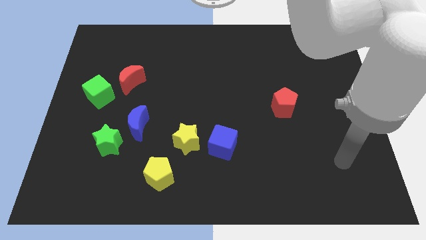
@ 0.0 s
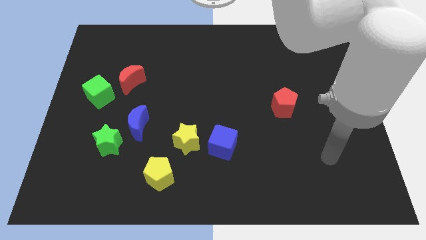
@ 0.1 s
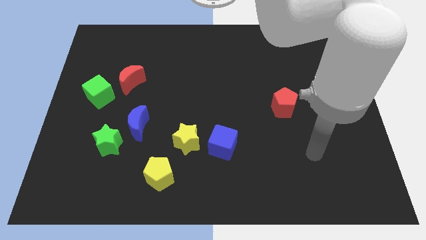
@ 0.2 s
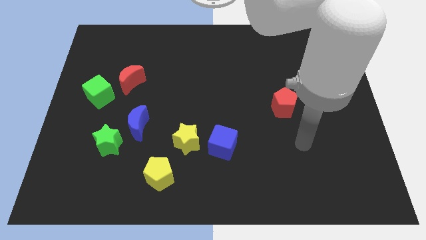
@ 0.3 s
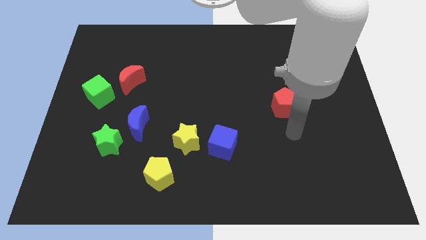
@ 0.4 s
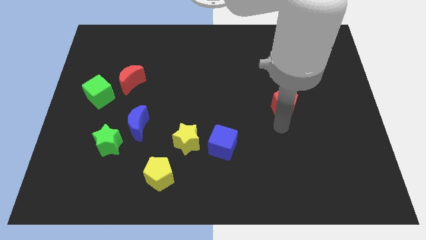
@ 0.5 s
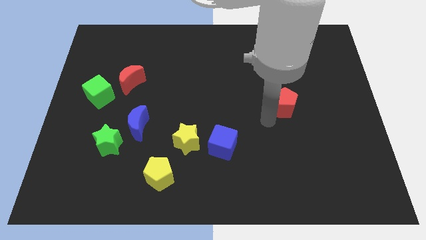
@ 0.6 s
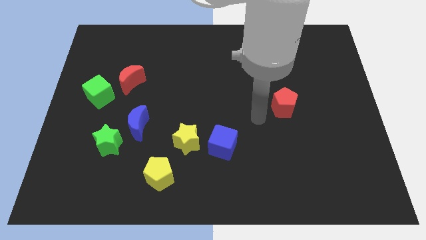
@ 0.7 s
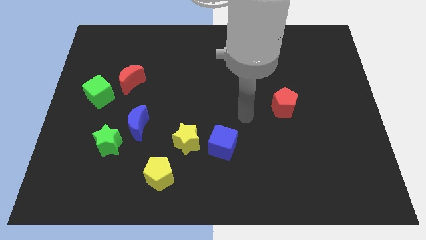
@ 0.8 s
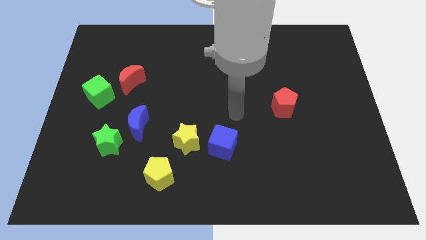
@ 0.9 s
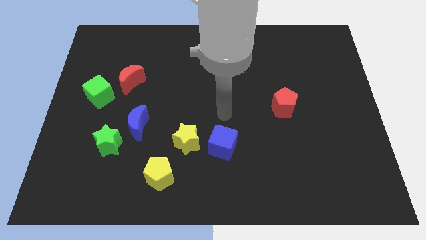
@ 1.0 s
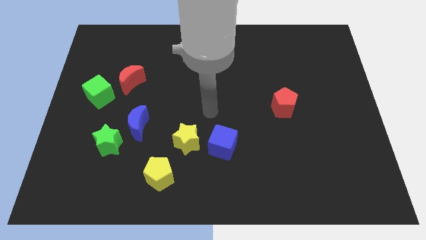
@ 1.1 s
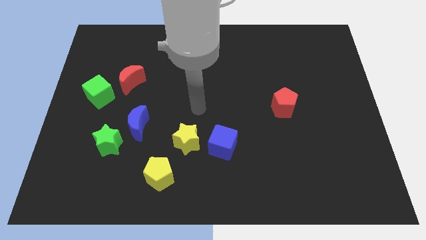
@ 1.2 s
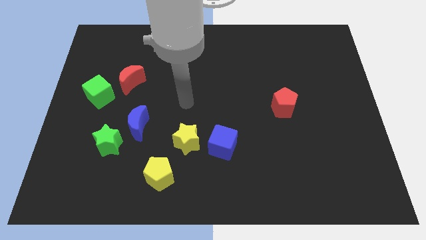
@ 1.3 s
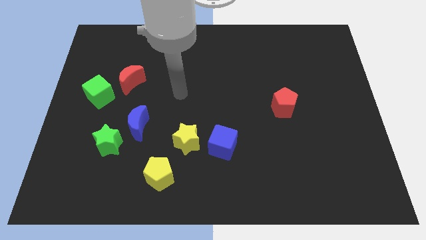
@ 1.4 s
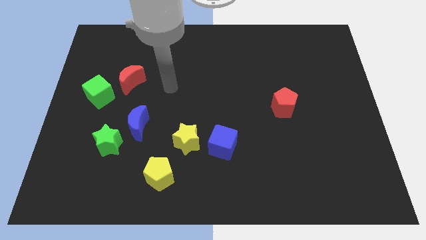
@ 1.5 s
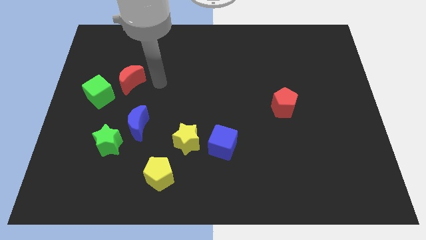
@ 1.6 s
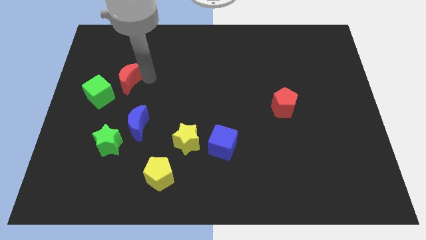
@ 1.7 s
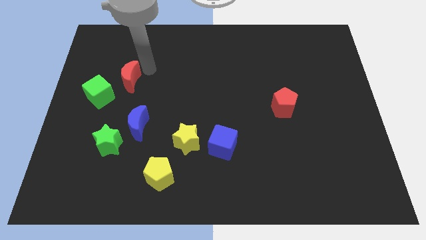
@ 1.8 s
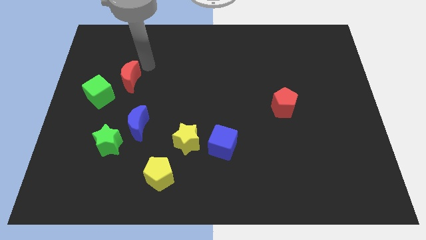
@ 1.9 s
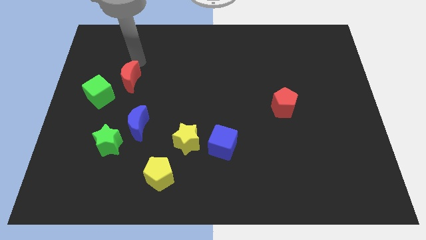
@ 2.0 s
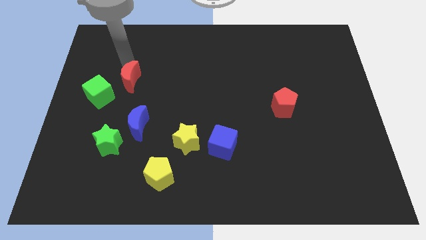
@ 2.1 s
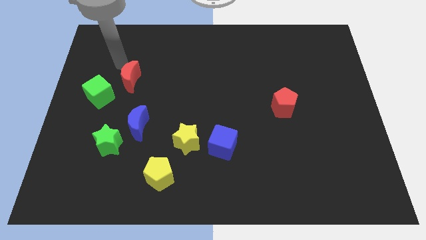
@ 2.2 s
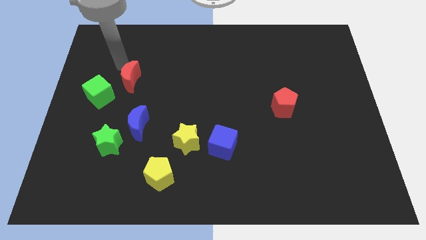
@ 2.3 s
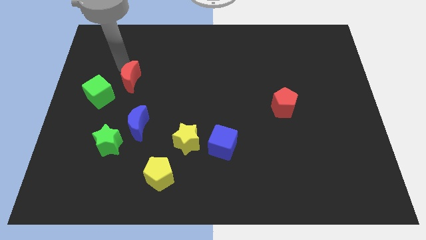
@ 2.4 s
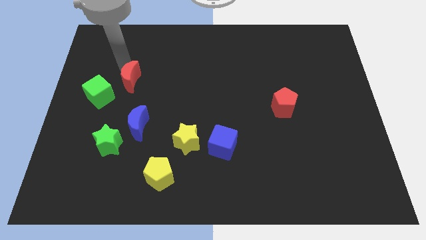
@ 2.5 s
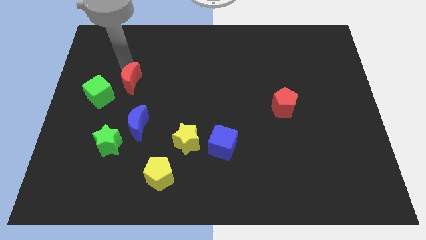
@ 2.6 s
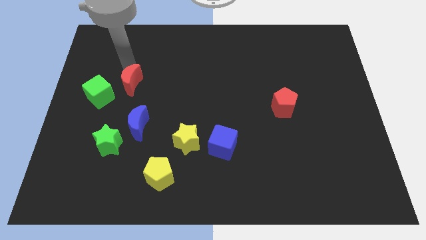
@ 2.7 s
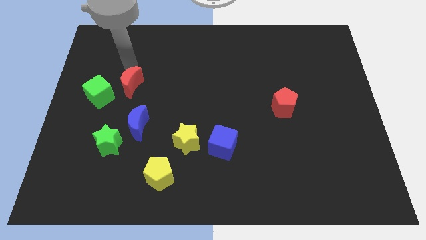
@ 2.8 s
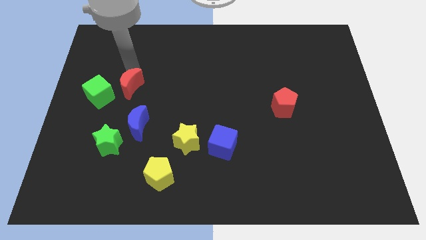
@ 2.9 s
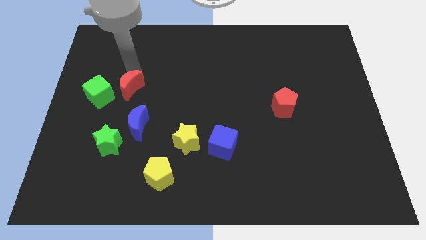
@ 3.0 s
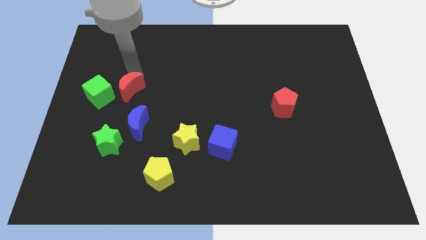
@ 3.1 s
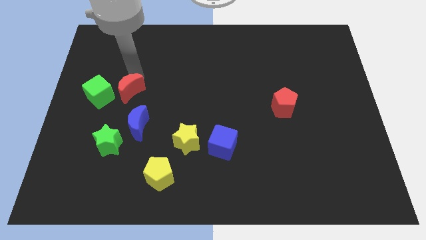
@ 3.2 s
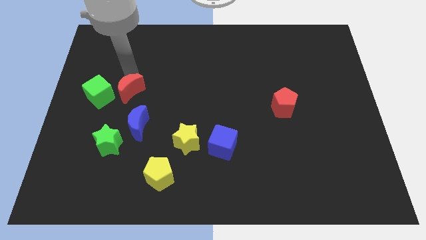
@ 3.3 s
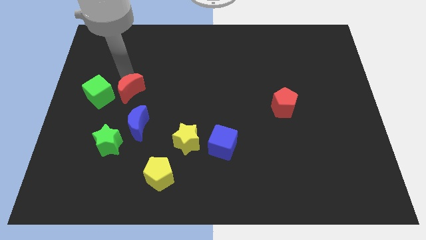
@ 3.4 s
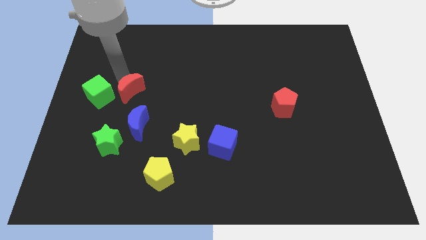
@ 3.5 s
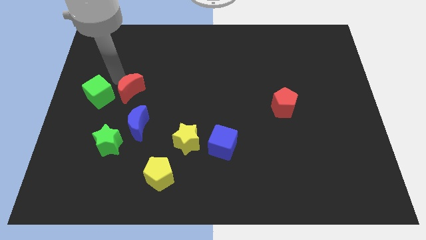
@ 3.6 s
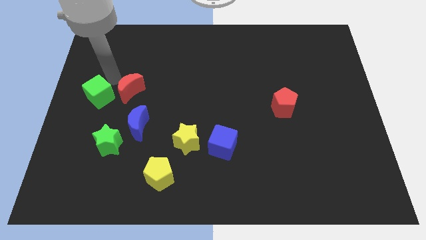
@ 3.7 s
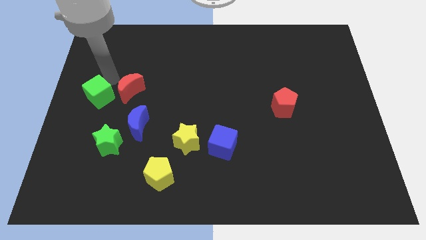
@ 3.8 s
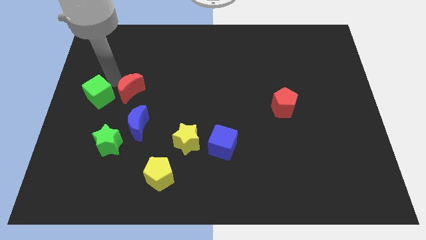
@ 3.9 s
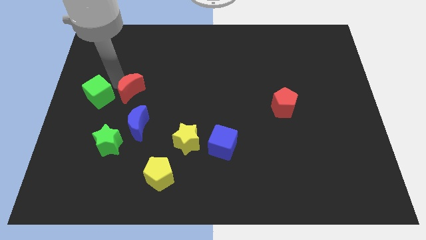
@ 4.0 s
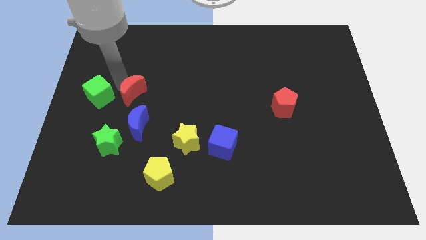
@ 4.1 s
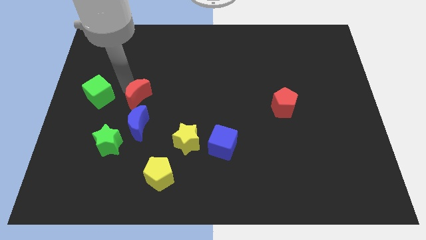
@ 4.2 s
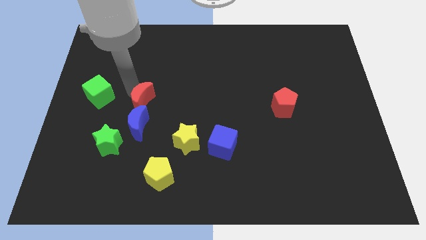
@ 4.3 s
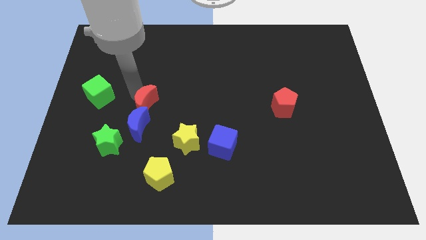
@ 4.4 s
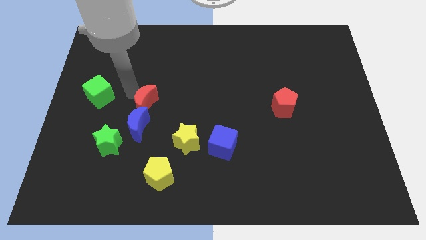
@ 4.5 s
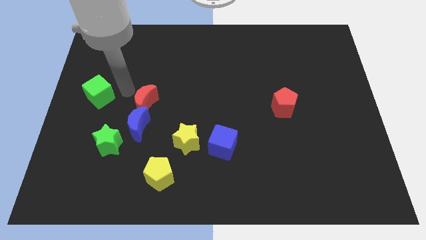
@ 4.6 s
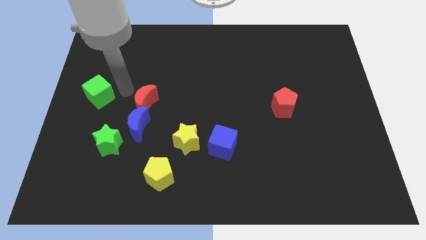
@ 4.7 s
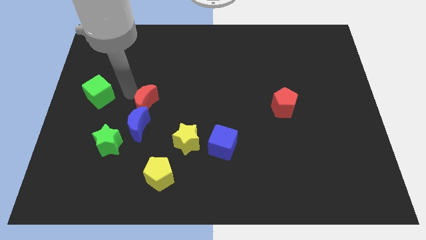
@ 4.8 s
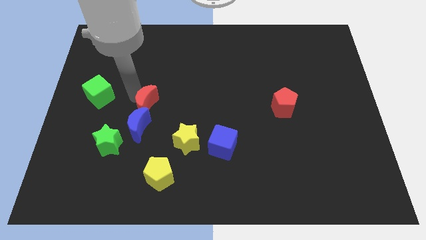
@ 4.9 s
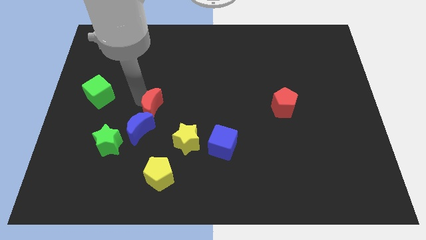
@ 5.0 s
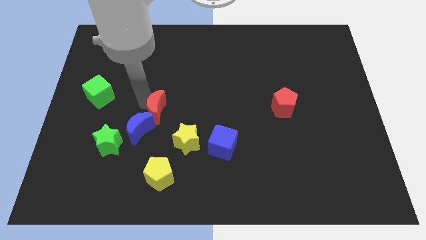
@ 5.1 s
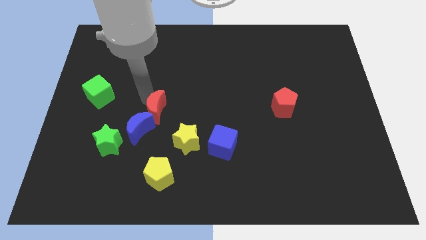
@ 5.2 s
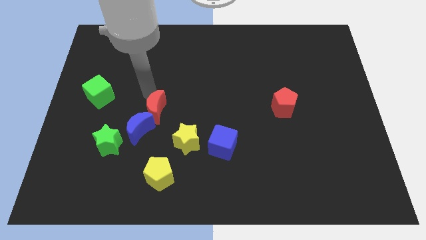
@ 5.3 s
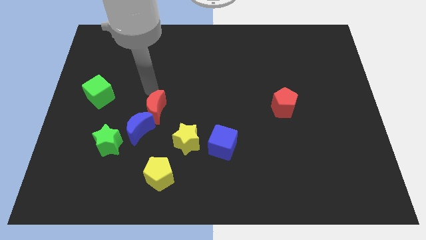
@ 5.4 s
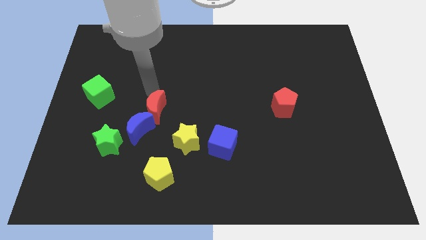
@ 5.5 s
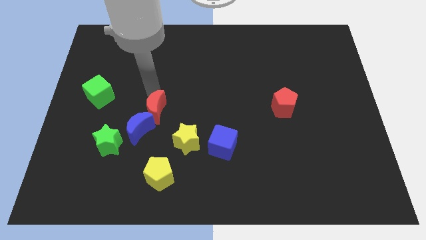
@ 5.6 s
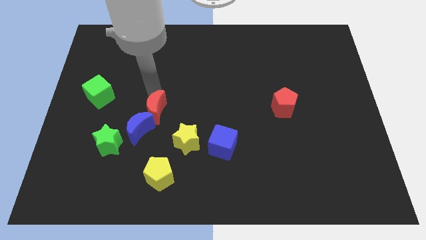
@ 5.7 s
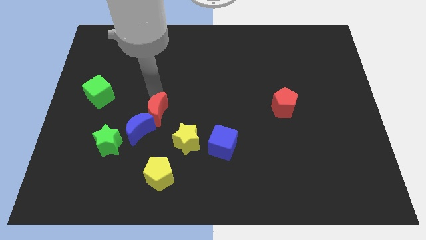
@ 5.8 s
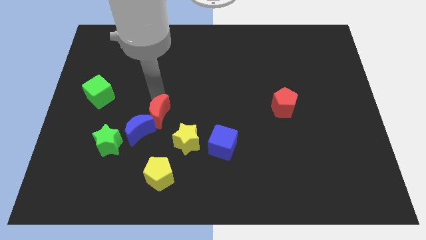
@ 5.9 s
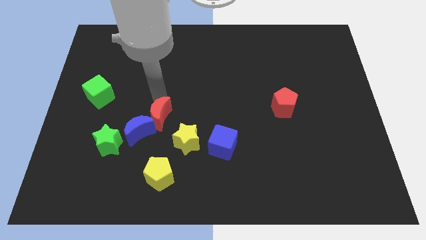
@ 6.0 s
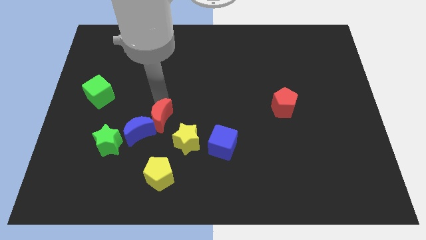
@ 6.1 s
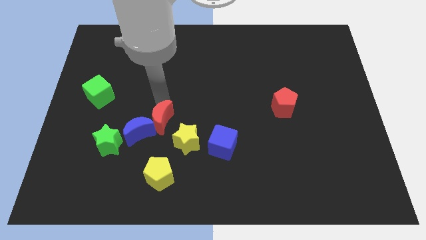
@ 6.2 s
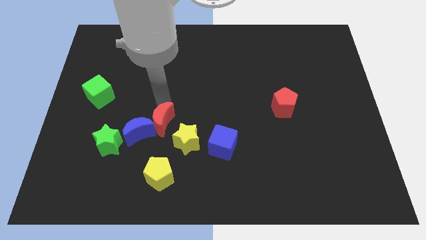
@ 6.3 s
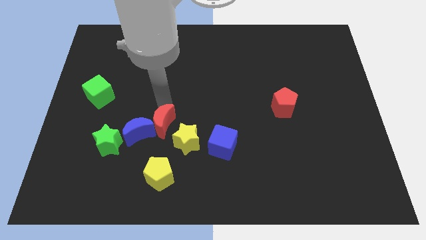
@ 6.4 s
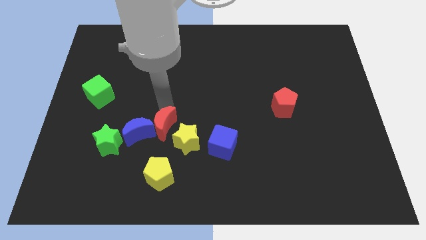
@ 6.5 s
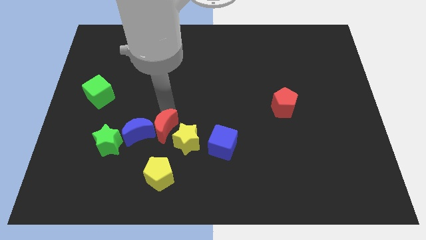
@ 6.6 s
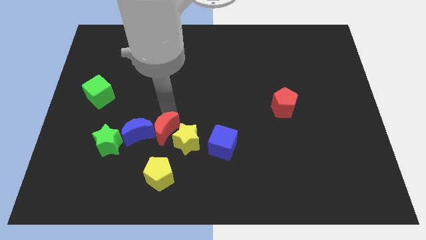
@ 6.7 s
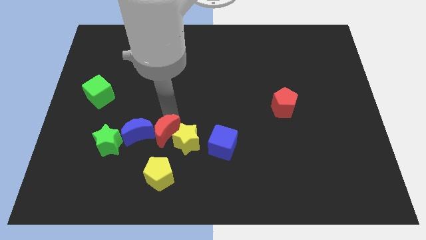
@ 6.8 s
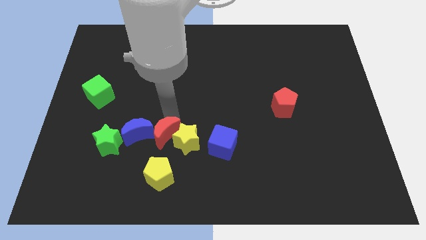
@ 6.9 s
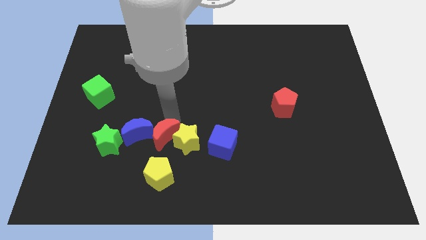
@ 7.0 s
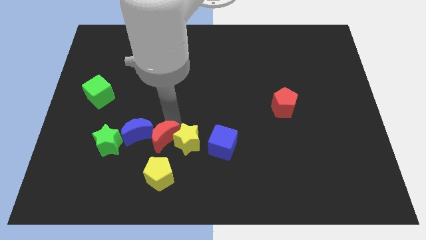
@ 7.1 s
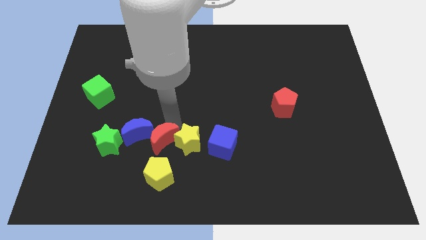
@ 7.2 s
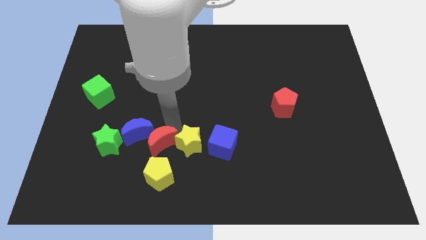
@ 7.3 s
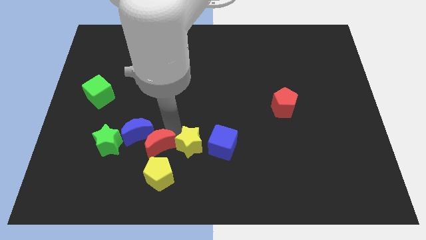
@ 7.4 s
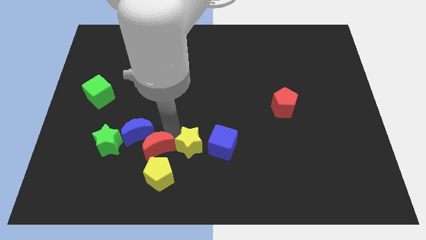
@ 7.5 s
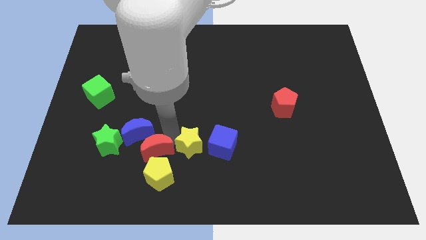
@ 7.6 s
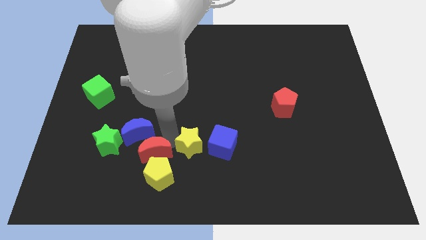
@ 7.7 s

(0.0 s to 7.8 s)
put the red moon towards the yellow pentagon
